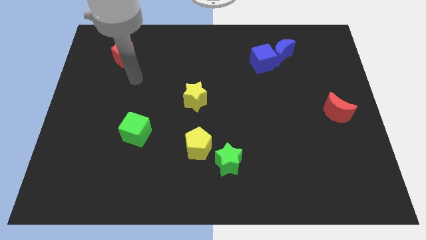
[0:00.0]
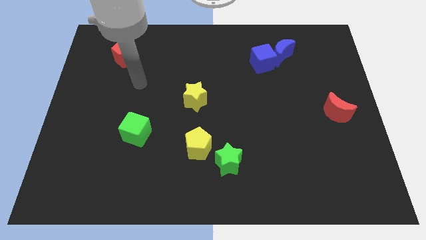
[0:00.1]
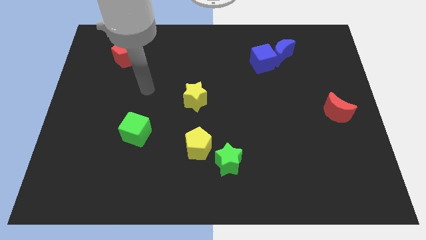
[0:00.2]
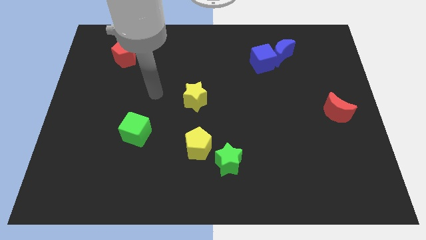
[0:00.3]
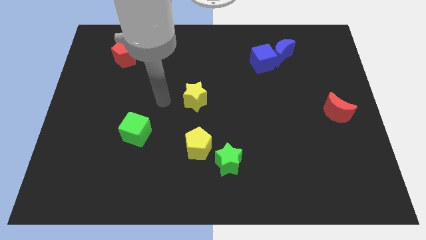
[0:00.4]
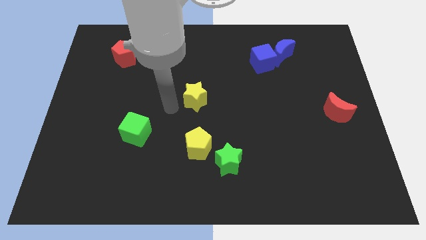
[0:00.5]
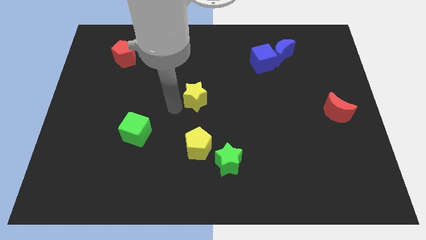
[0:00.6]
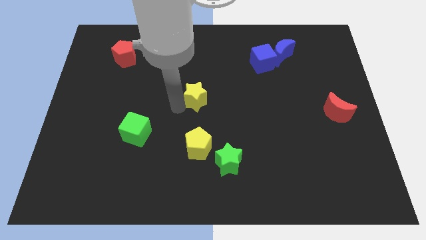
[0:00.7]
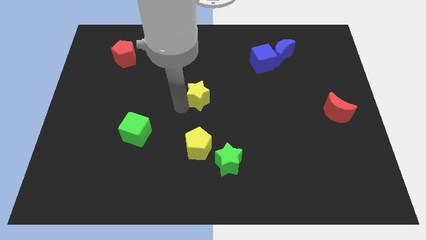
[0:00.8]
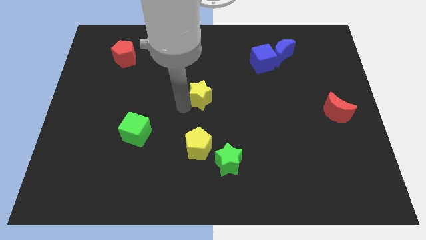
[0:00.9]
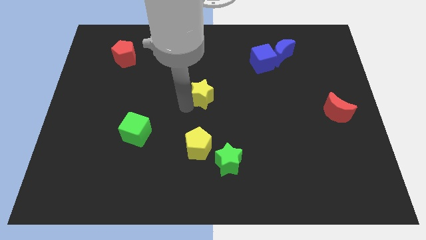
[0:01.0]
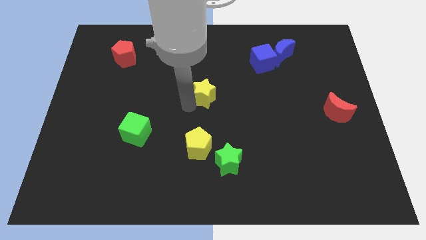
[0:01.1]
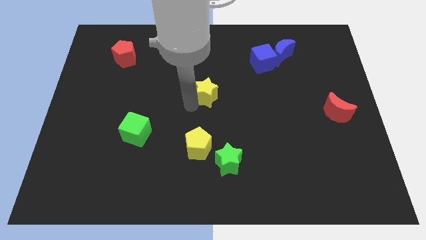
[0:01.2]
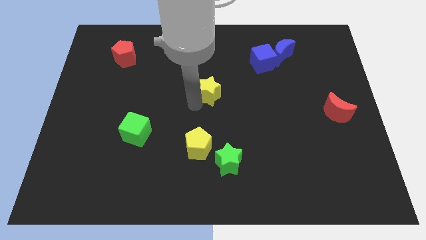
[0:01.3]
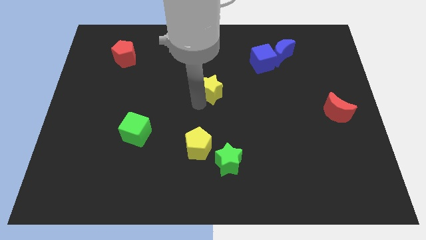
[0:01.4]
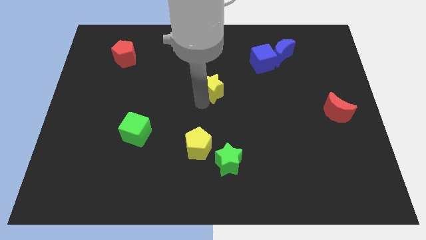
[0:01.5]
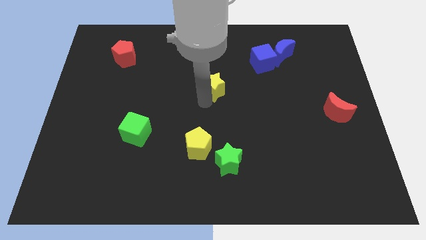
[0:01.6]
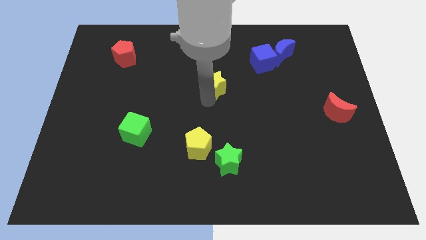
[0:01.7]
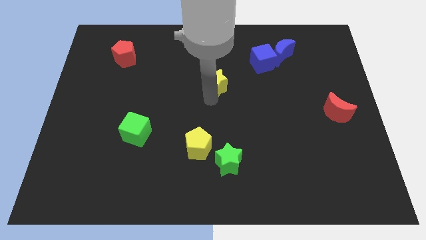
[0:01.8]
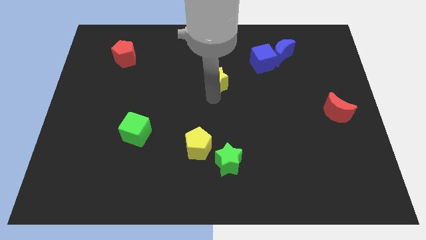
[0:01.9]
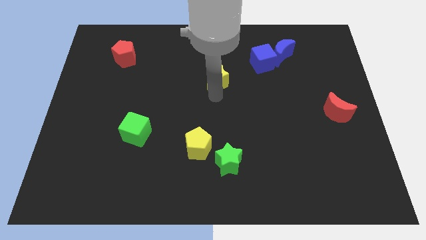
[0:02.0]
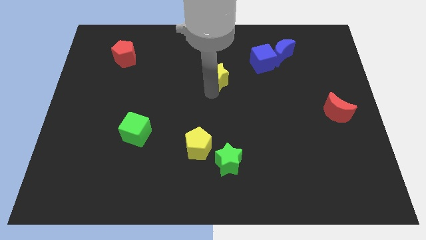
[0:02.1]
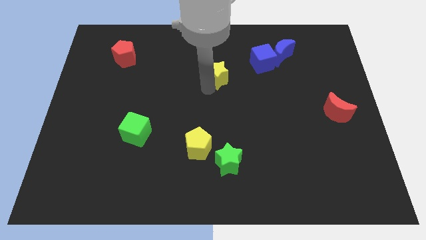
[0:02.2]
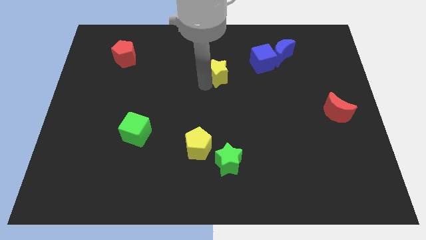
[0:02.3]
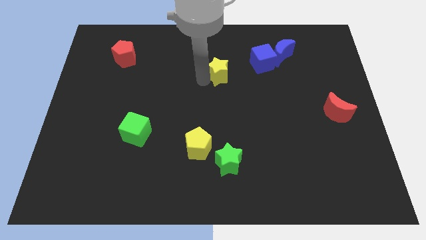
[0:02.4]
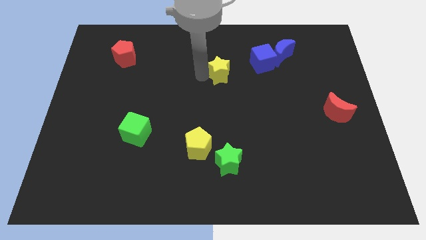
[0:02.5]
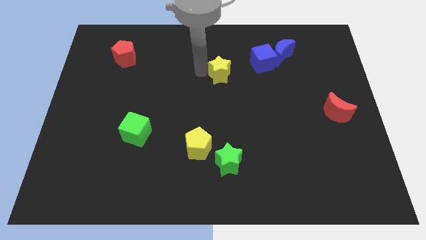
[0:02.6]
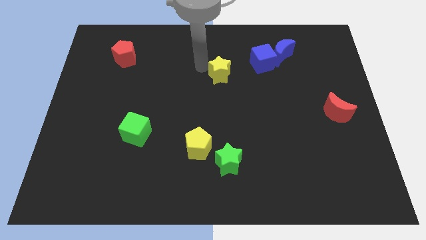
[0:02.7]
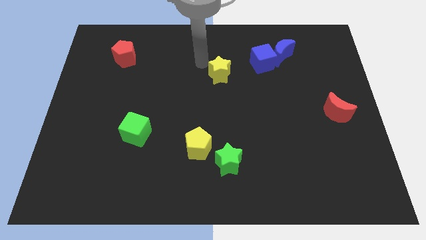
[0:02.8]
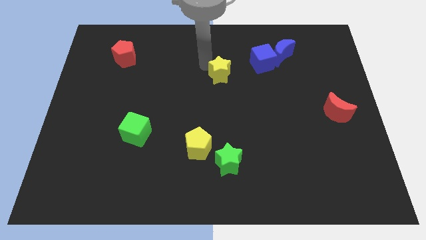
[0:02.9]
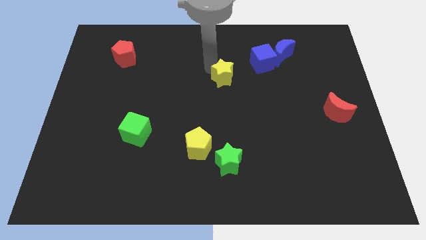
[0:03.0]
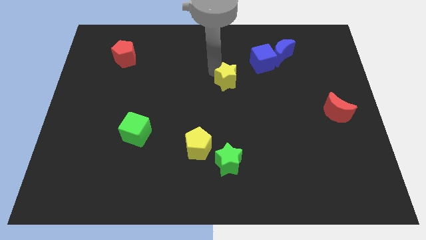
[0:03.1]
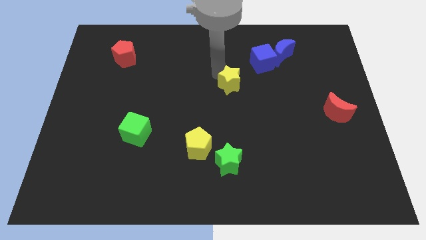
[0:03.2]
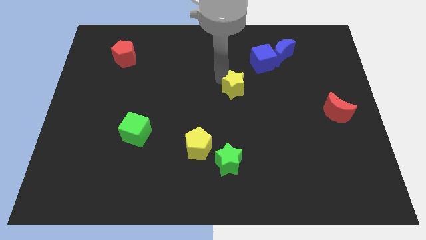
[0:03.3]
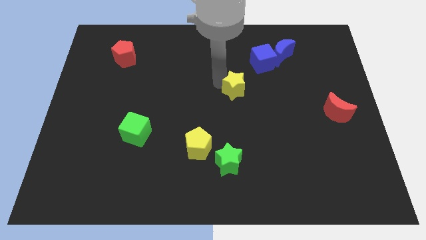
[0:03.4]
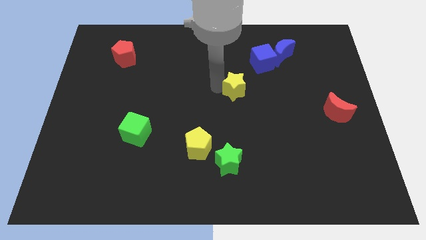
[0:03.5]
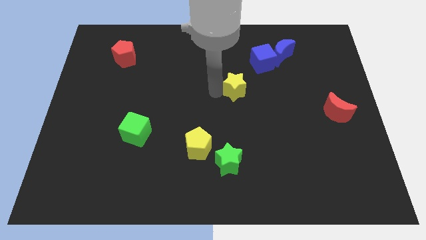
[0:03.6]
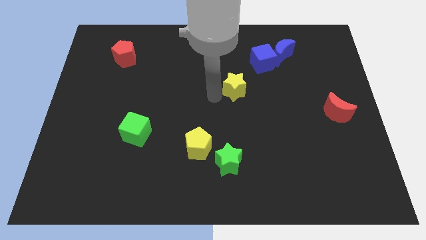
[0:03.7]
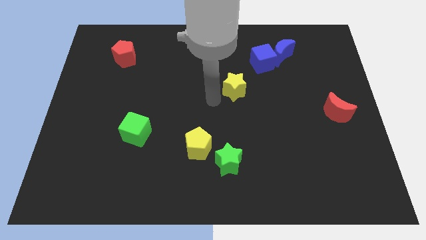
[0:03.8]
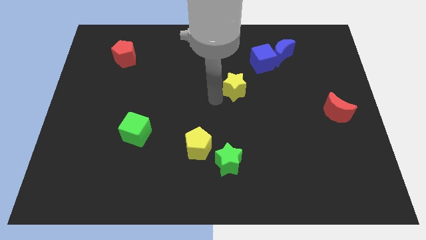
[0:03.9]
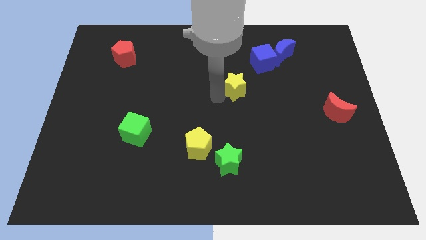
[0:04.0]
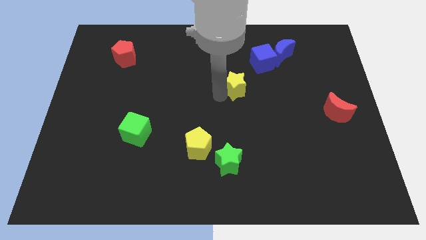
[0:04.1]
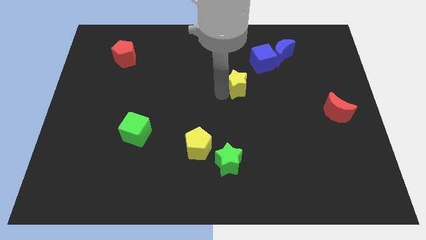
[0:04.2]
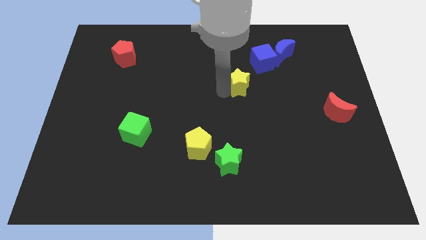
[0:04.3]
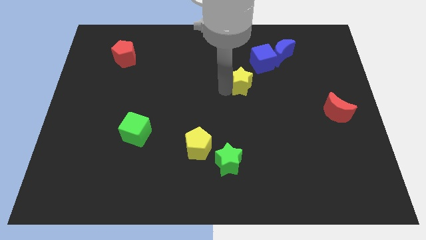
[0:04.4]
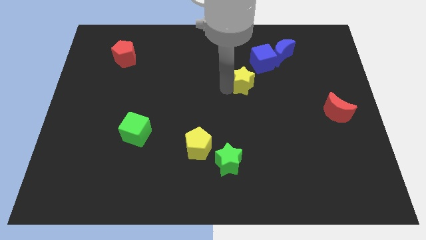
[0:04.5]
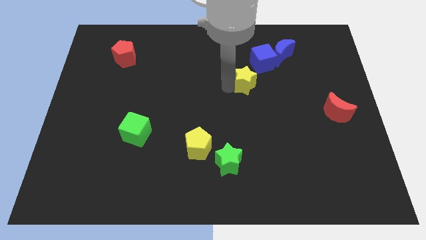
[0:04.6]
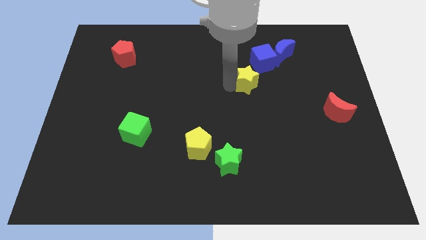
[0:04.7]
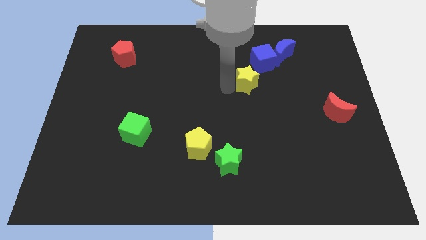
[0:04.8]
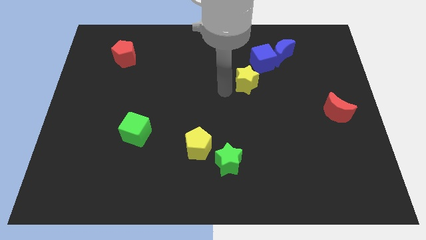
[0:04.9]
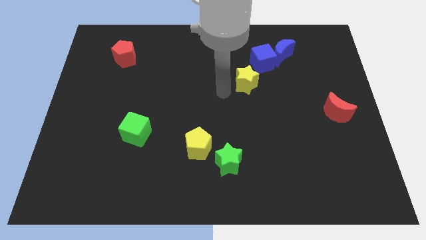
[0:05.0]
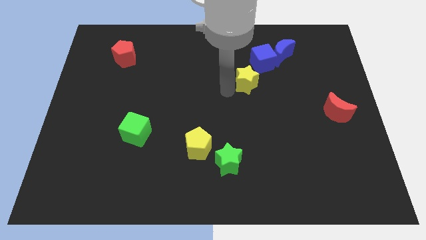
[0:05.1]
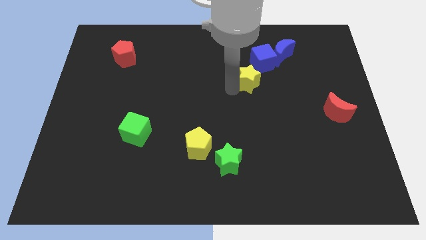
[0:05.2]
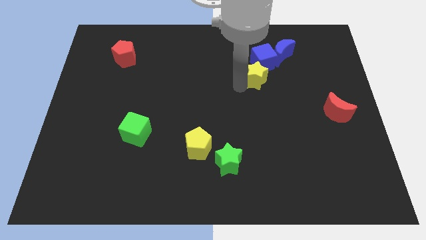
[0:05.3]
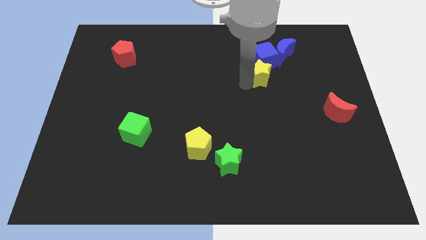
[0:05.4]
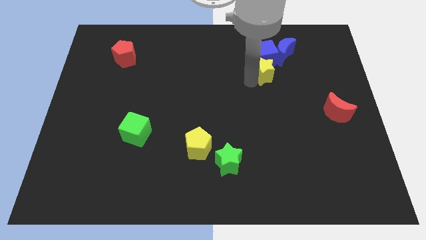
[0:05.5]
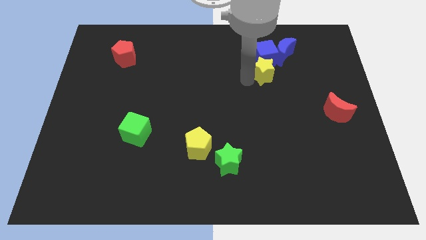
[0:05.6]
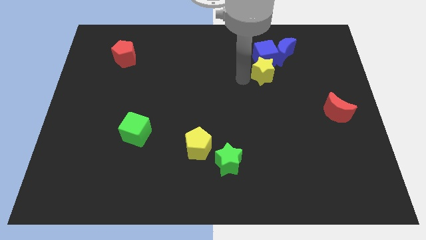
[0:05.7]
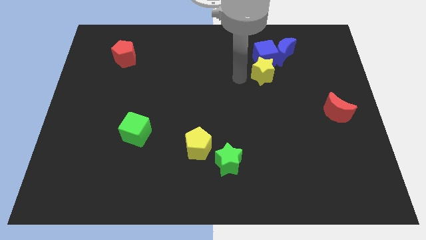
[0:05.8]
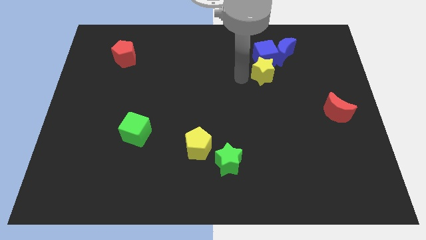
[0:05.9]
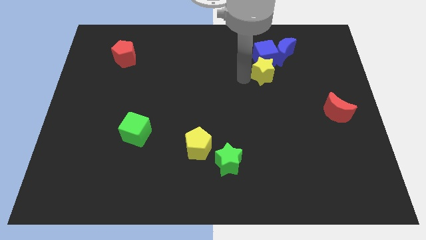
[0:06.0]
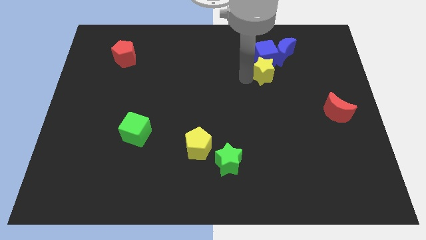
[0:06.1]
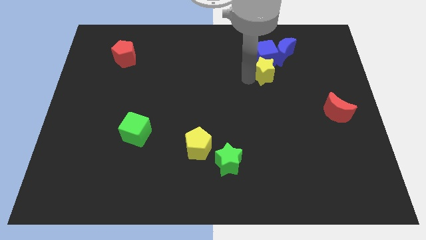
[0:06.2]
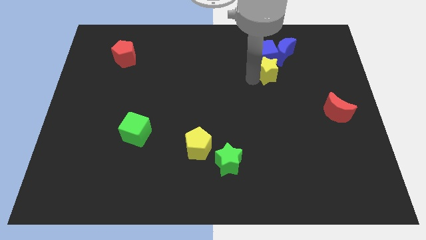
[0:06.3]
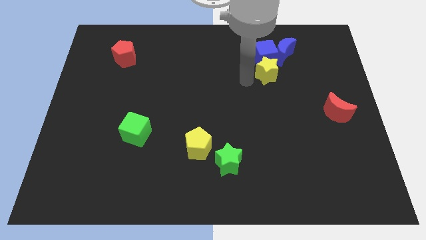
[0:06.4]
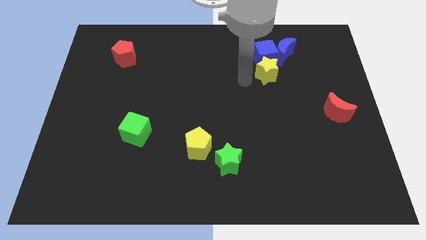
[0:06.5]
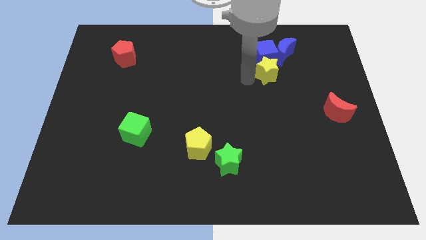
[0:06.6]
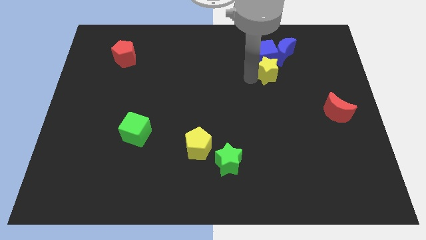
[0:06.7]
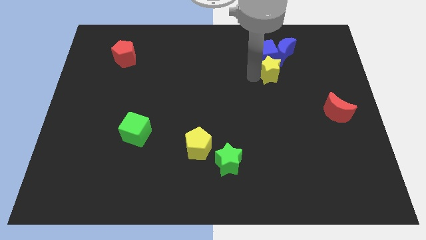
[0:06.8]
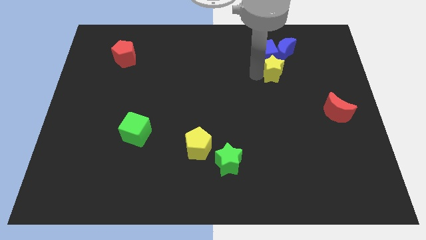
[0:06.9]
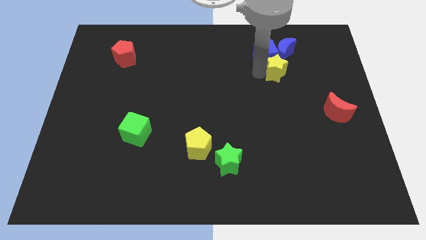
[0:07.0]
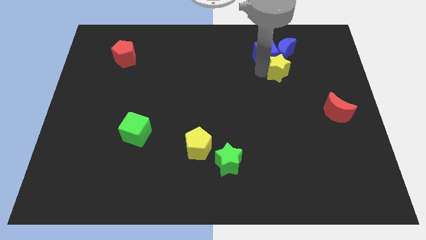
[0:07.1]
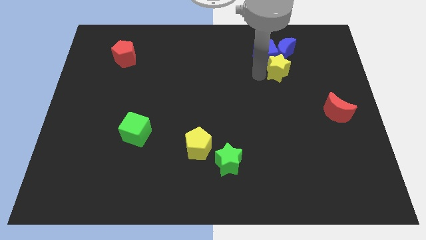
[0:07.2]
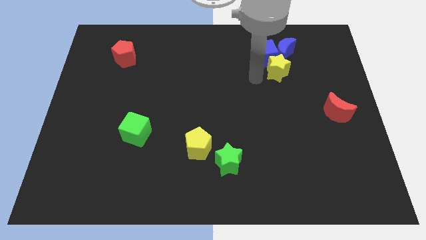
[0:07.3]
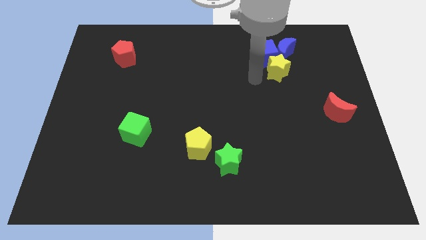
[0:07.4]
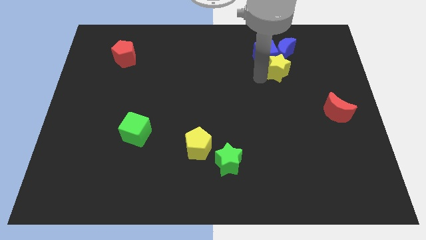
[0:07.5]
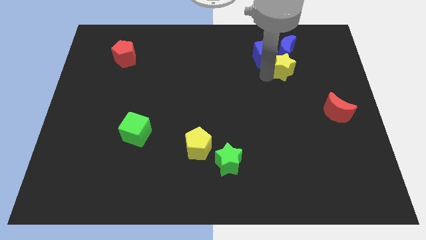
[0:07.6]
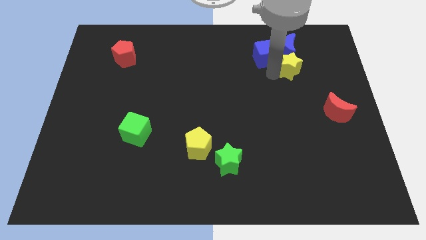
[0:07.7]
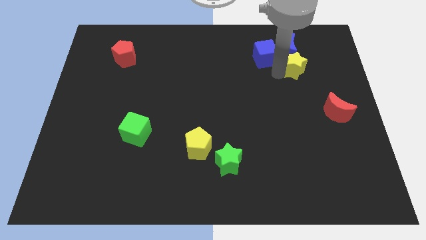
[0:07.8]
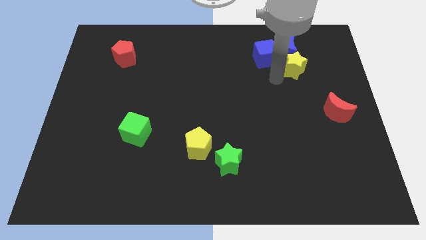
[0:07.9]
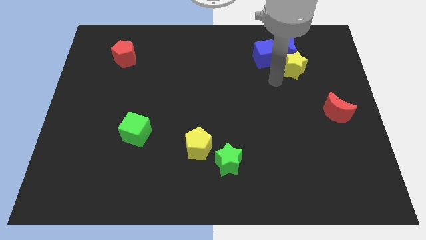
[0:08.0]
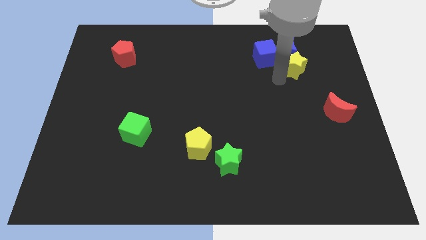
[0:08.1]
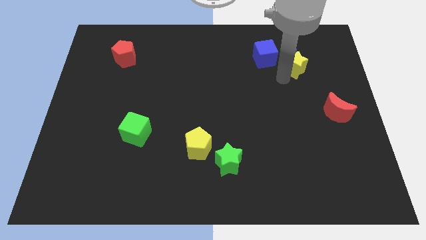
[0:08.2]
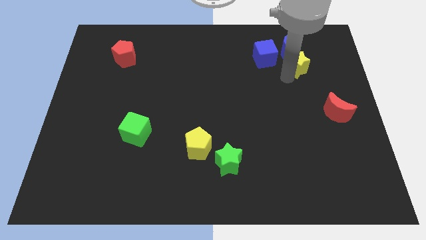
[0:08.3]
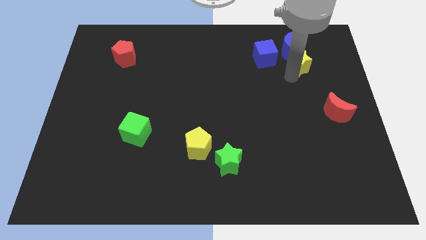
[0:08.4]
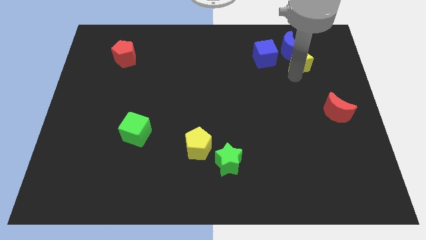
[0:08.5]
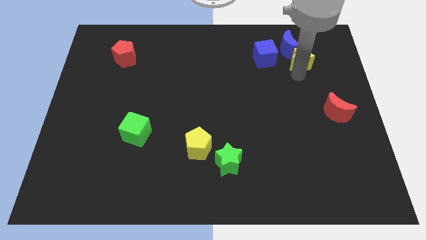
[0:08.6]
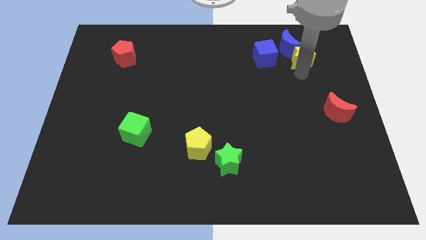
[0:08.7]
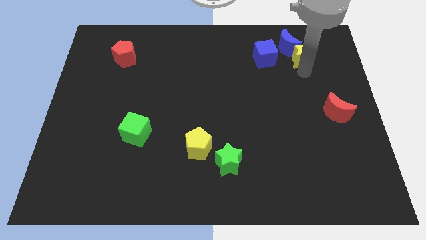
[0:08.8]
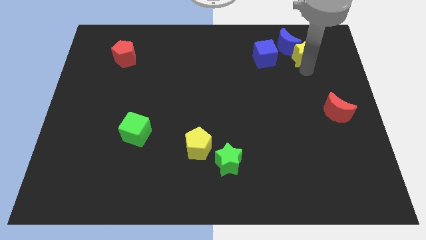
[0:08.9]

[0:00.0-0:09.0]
slide the yellow star to the right side of the blue moon

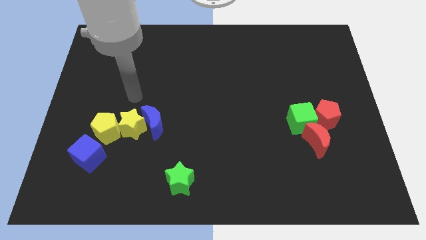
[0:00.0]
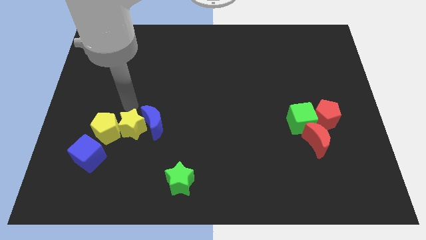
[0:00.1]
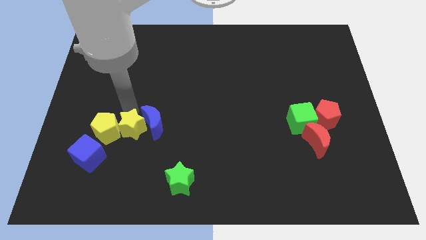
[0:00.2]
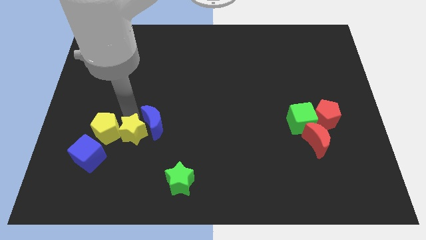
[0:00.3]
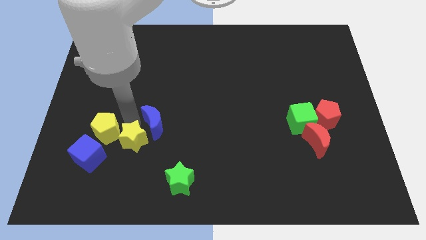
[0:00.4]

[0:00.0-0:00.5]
move the yellow star to the right side of the blue cube
